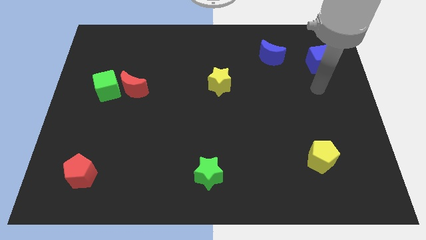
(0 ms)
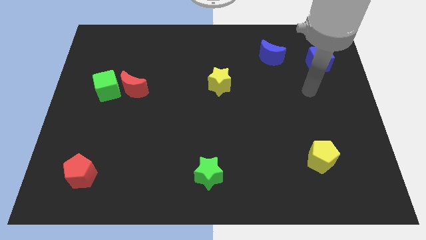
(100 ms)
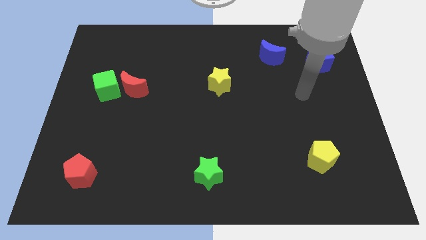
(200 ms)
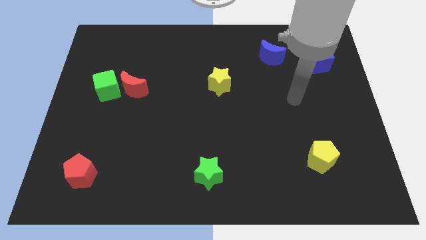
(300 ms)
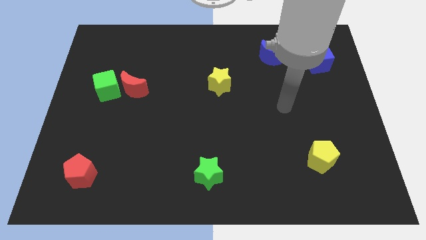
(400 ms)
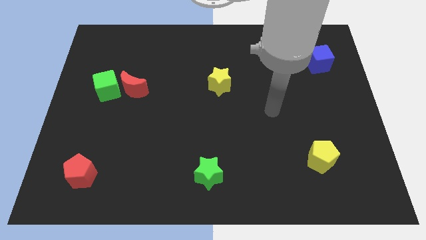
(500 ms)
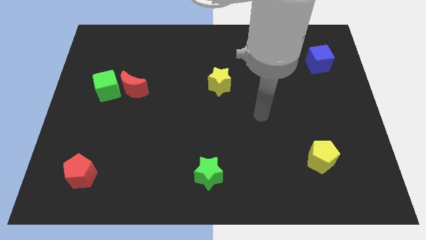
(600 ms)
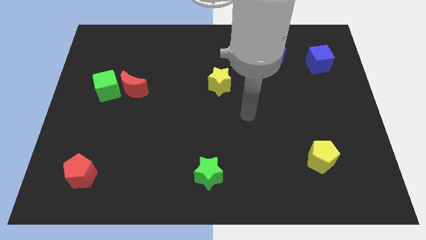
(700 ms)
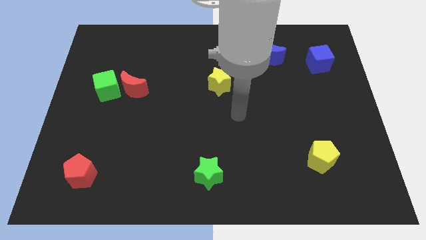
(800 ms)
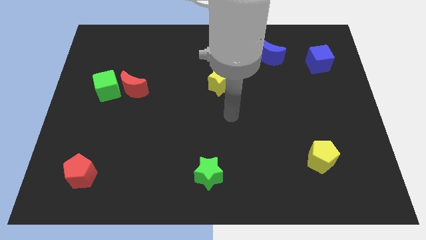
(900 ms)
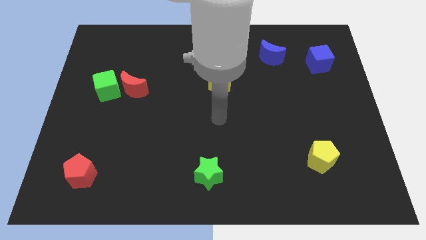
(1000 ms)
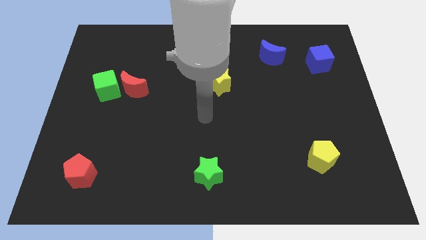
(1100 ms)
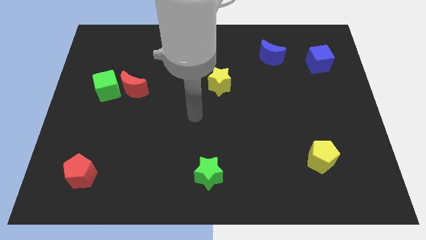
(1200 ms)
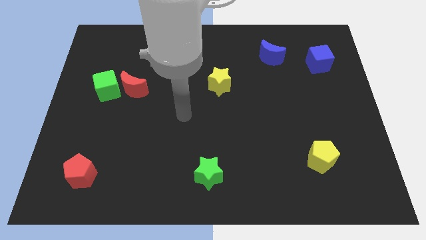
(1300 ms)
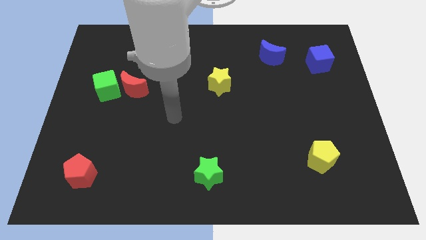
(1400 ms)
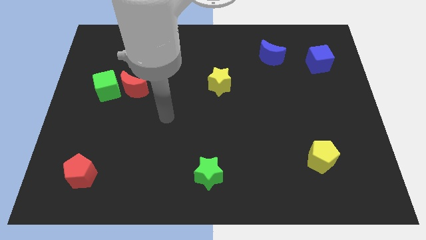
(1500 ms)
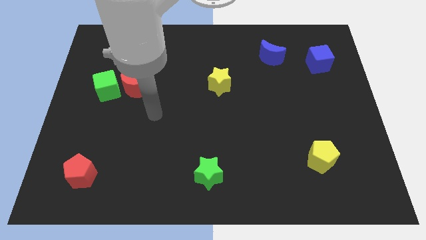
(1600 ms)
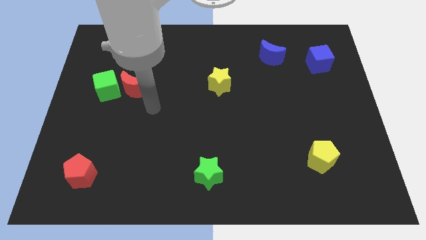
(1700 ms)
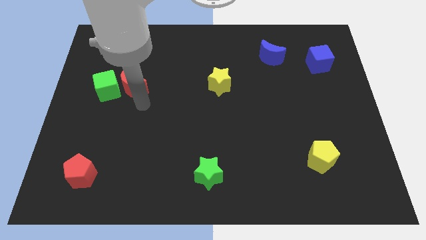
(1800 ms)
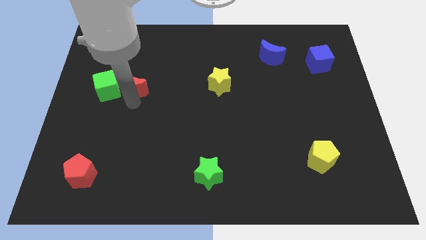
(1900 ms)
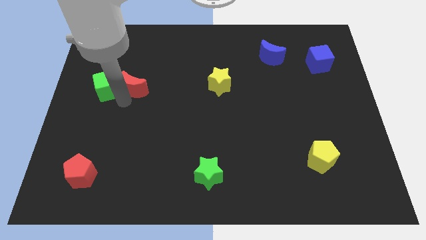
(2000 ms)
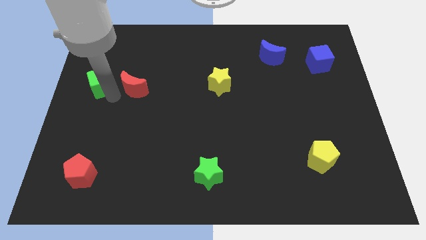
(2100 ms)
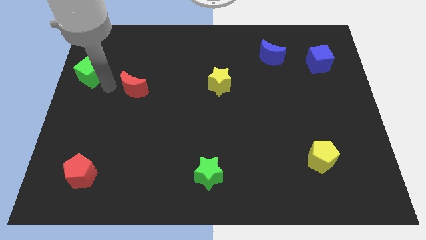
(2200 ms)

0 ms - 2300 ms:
separate the red moon from the green cube

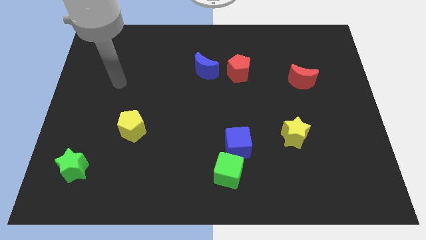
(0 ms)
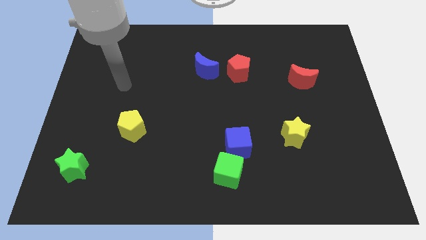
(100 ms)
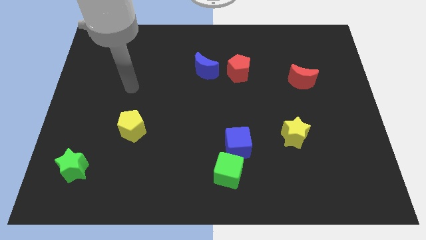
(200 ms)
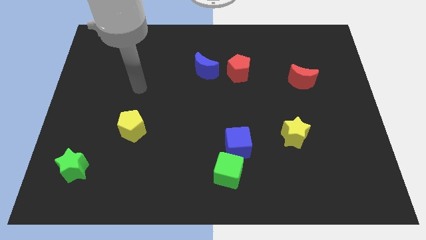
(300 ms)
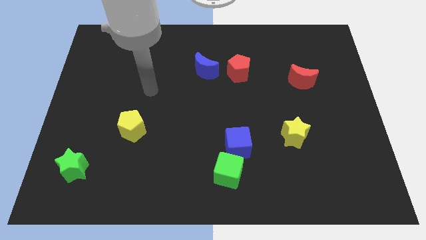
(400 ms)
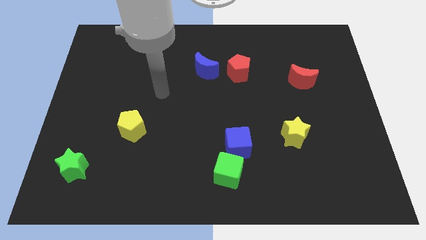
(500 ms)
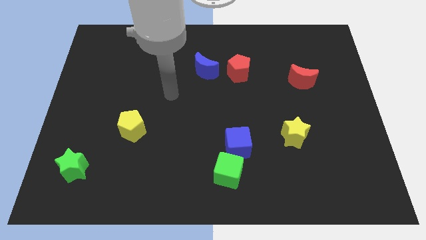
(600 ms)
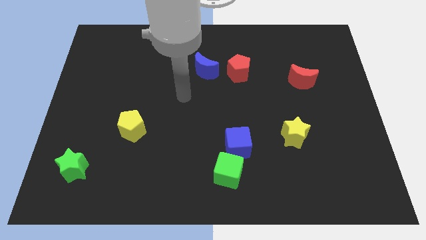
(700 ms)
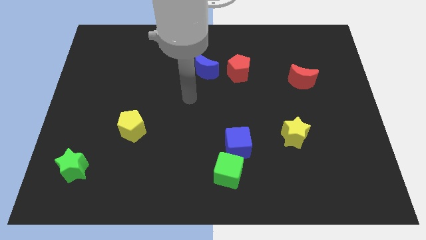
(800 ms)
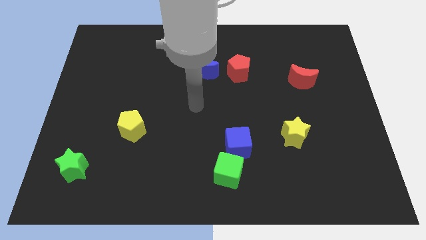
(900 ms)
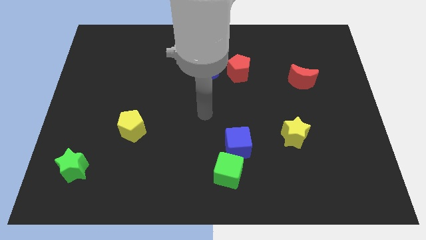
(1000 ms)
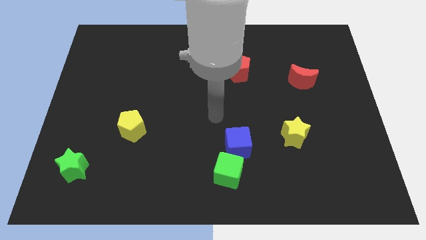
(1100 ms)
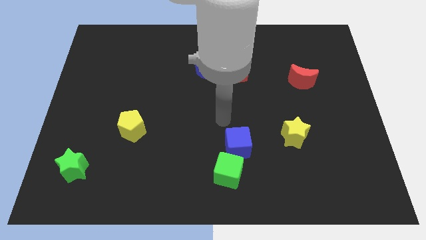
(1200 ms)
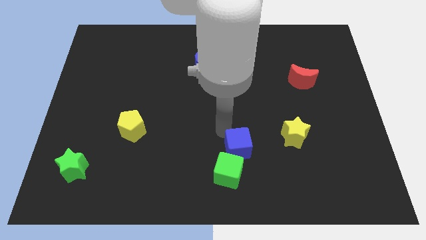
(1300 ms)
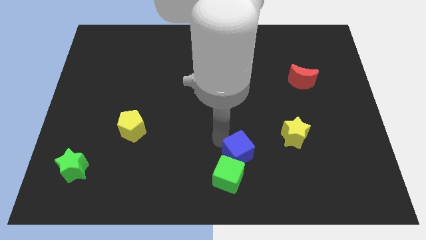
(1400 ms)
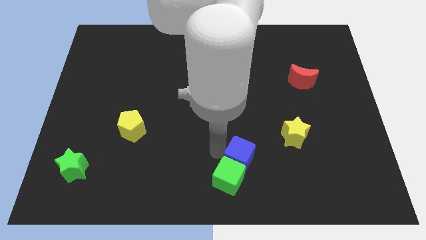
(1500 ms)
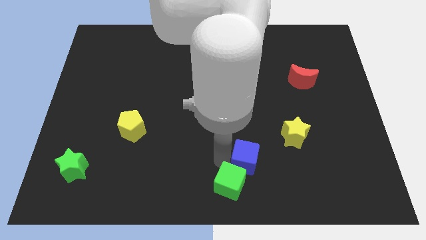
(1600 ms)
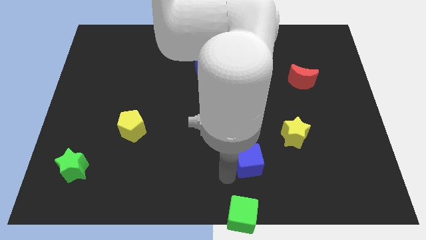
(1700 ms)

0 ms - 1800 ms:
move the blue cube away from the green cube

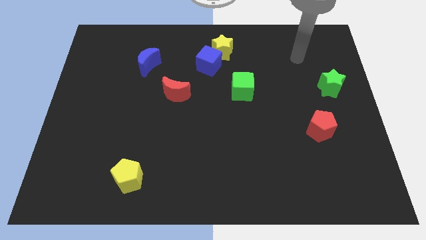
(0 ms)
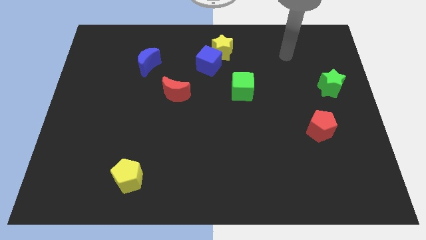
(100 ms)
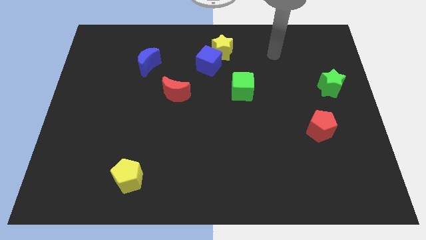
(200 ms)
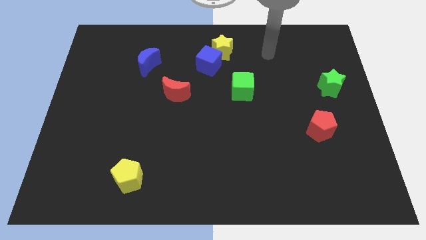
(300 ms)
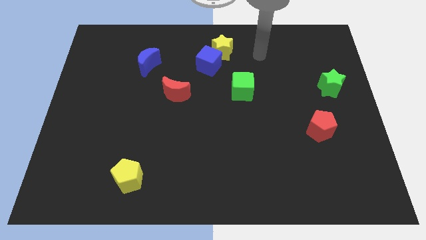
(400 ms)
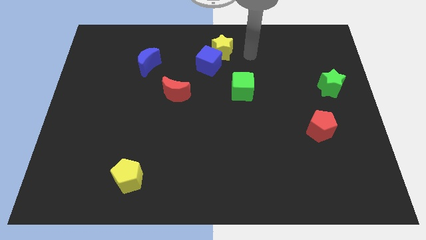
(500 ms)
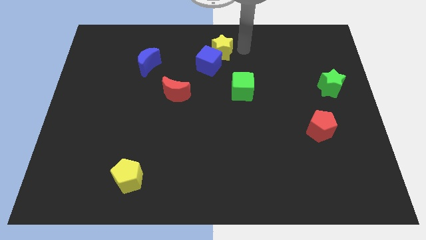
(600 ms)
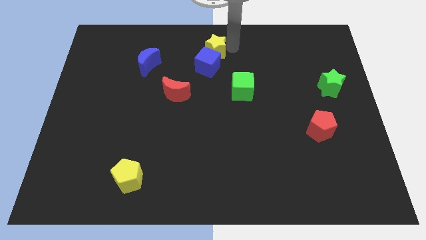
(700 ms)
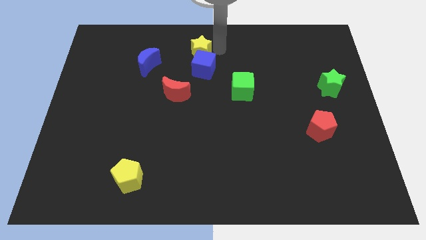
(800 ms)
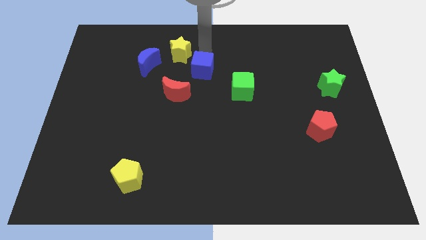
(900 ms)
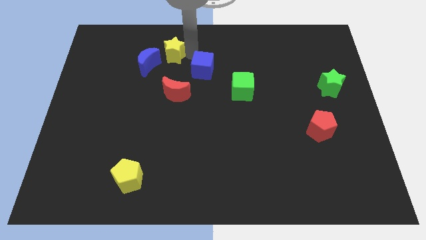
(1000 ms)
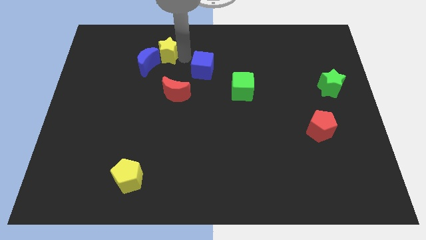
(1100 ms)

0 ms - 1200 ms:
move the blue cube away from the yellow star

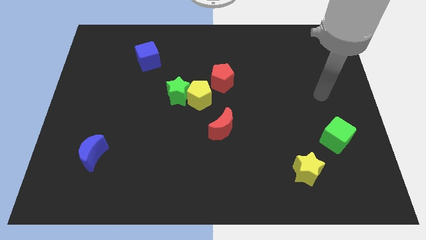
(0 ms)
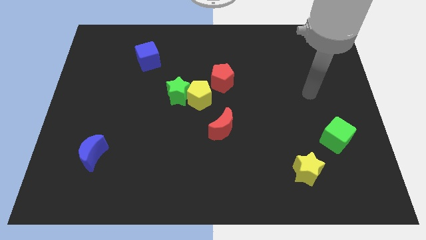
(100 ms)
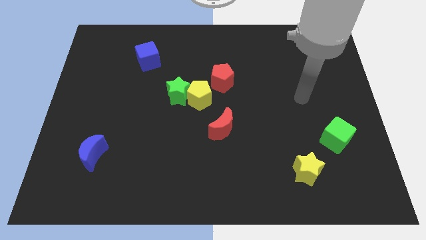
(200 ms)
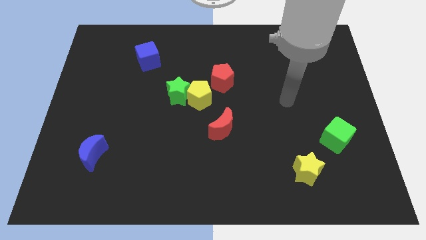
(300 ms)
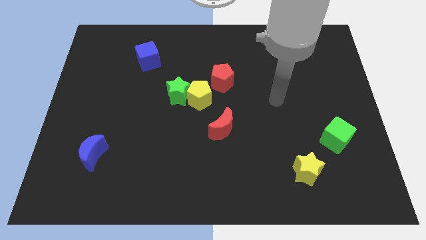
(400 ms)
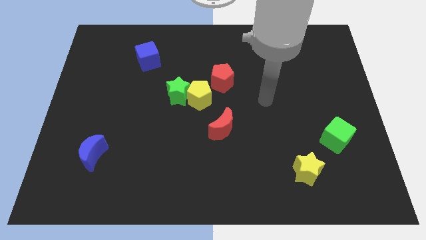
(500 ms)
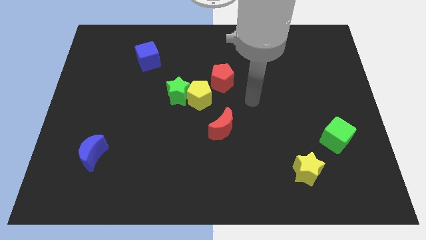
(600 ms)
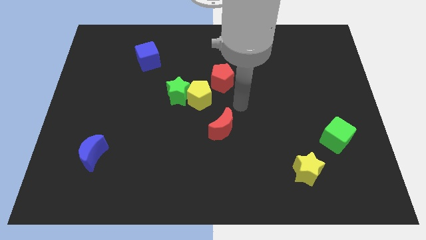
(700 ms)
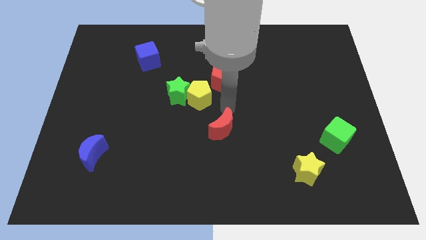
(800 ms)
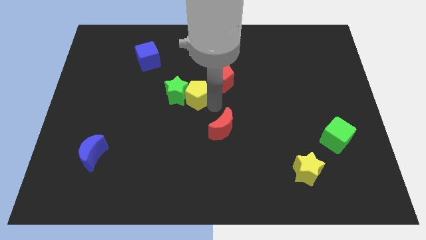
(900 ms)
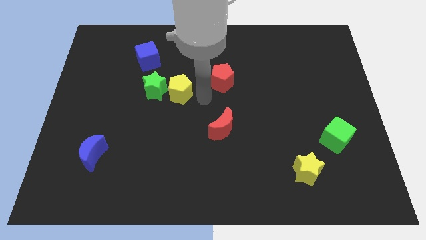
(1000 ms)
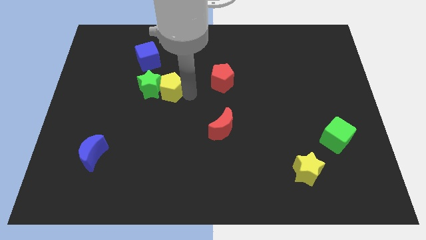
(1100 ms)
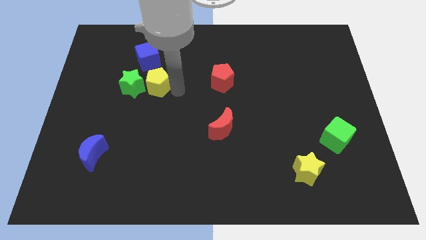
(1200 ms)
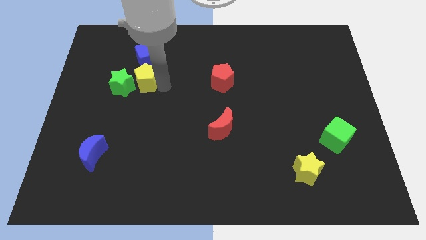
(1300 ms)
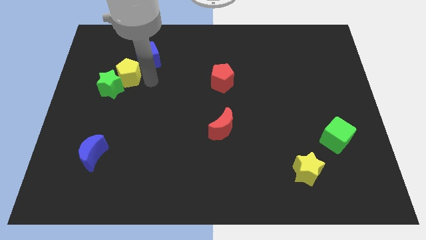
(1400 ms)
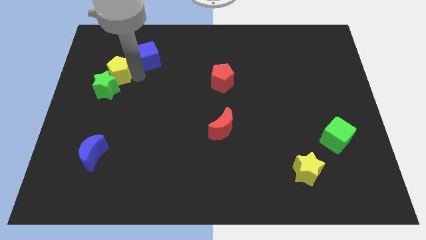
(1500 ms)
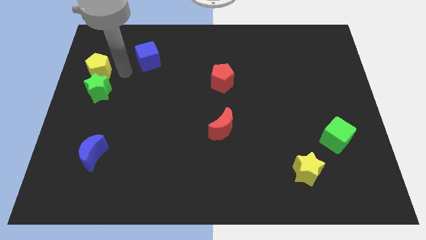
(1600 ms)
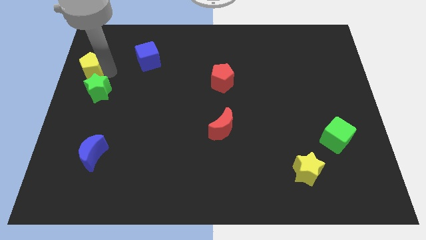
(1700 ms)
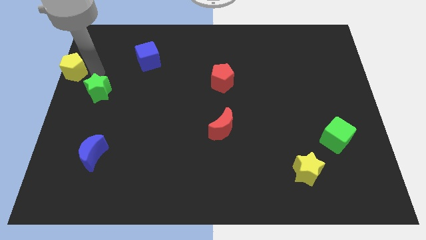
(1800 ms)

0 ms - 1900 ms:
pull the green star apart from the yellow pentagon

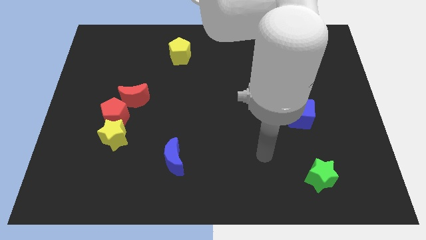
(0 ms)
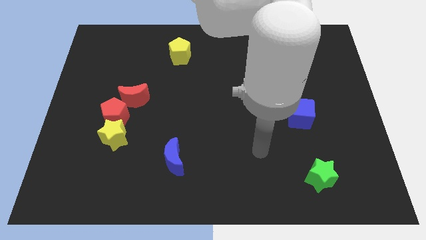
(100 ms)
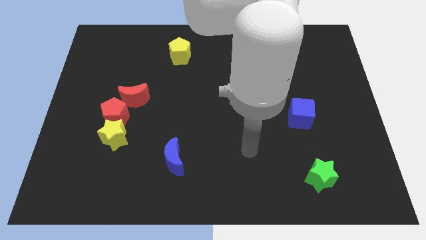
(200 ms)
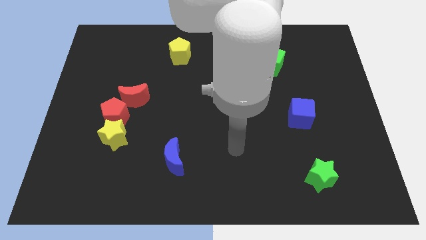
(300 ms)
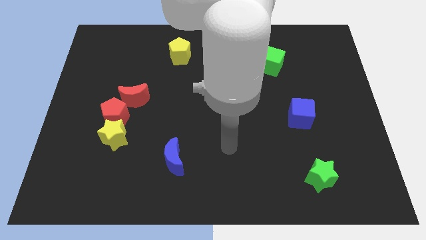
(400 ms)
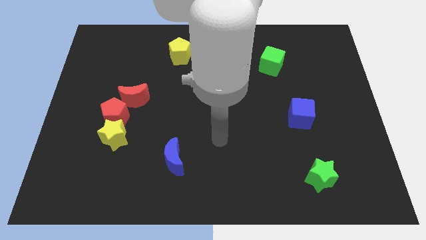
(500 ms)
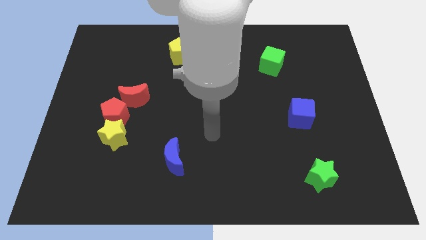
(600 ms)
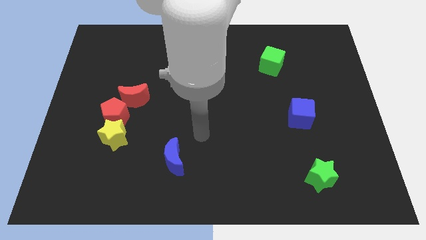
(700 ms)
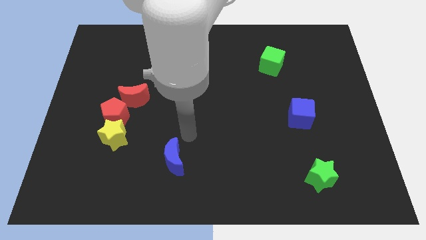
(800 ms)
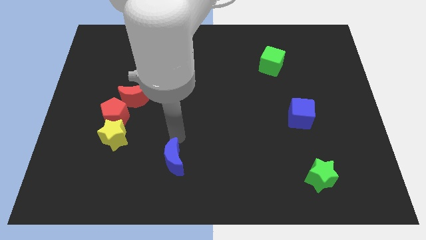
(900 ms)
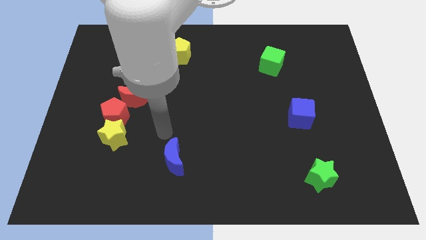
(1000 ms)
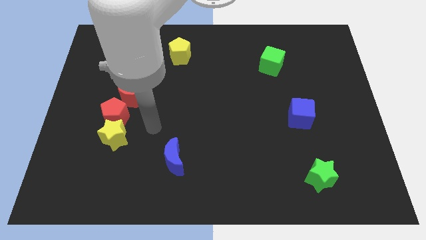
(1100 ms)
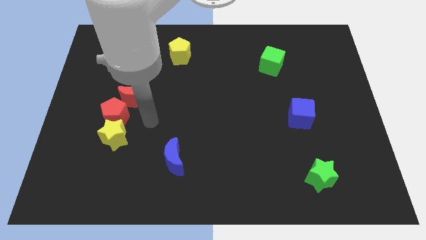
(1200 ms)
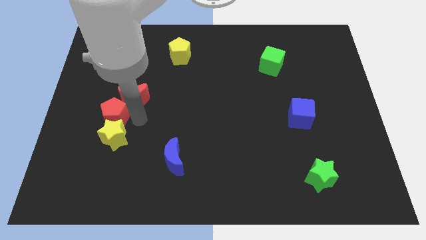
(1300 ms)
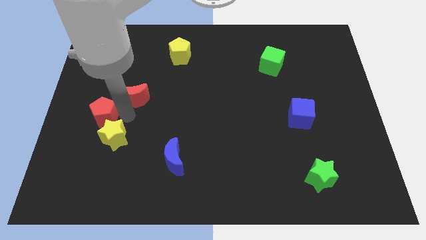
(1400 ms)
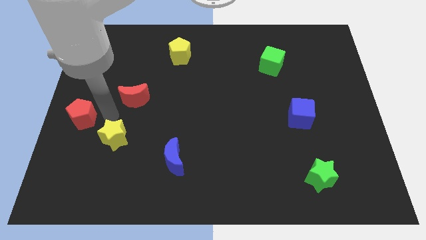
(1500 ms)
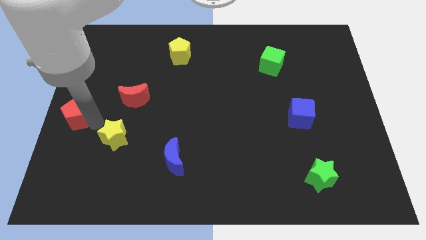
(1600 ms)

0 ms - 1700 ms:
move the yellow star away from the red pentagon

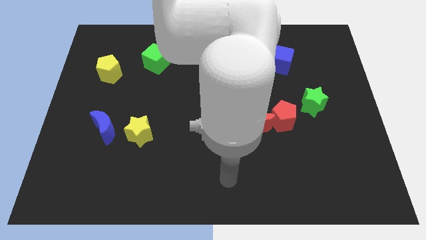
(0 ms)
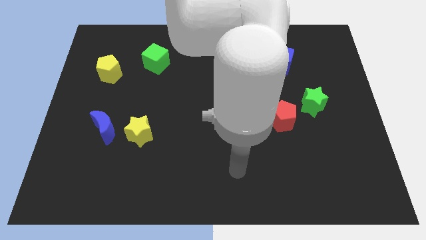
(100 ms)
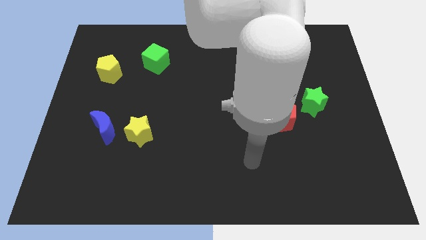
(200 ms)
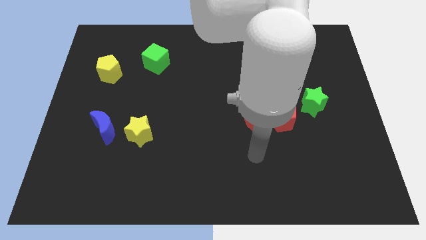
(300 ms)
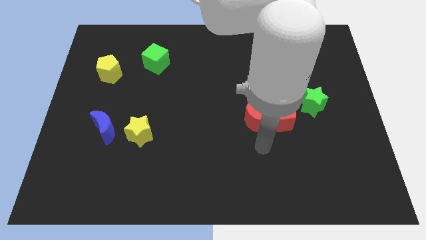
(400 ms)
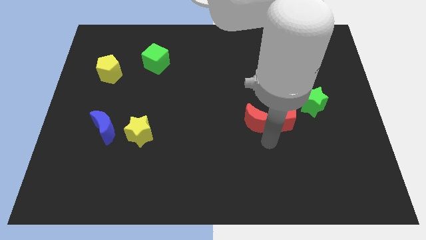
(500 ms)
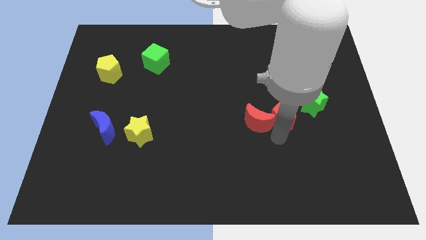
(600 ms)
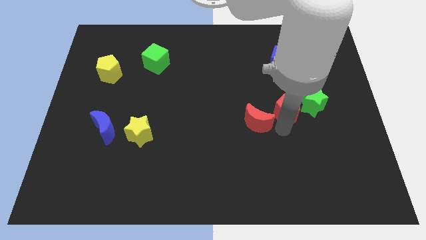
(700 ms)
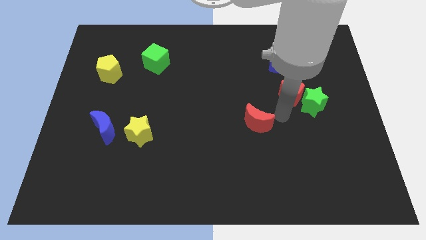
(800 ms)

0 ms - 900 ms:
separate the red moon from the red pentagon
